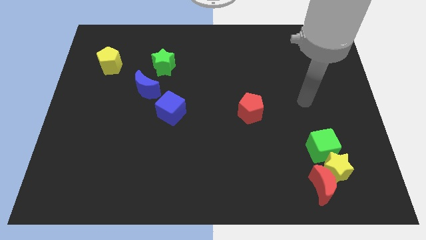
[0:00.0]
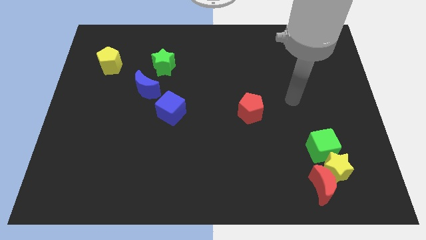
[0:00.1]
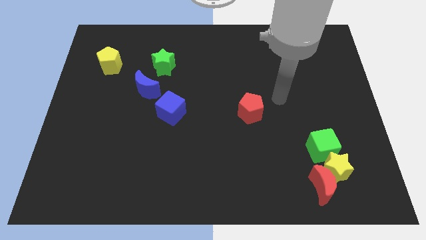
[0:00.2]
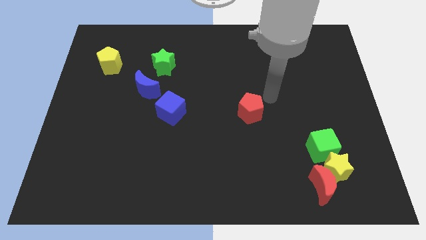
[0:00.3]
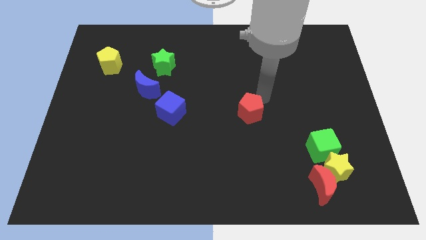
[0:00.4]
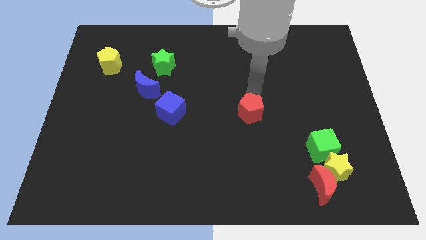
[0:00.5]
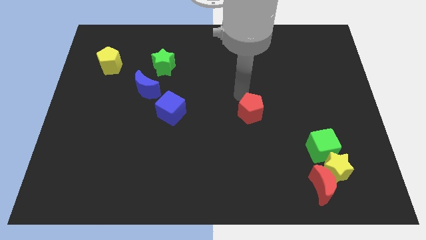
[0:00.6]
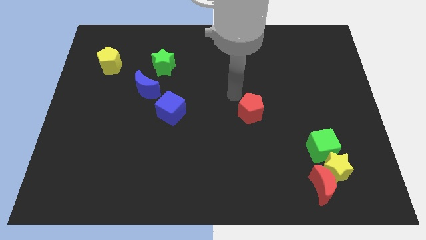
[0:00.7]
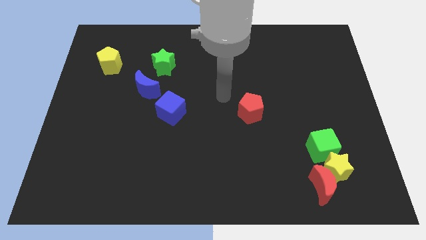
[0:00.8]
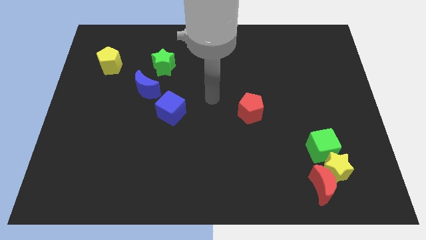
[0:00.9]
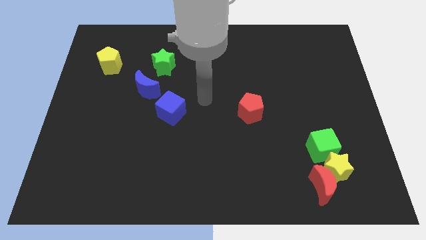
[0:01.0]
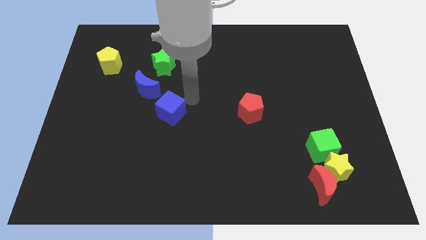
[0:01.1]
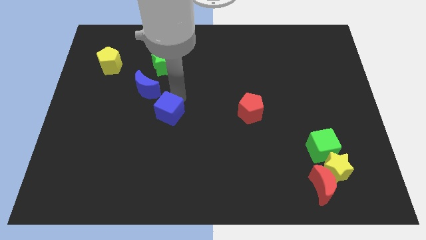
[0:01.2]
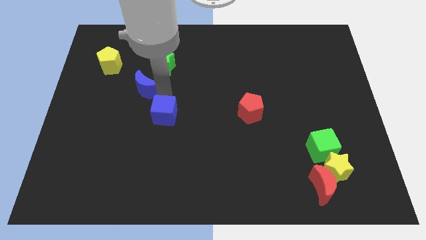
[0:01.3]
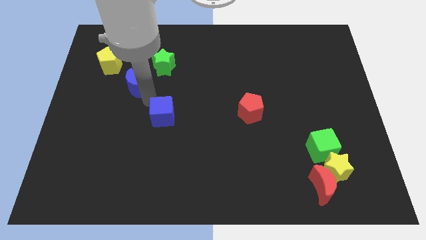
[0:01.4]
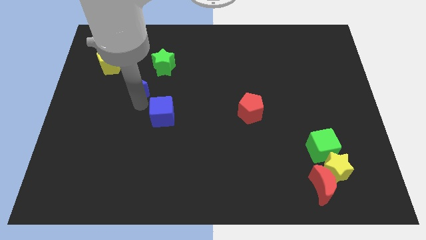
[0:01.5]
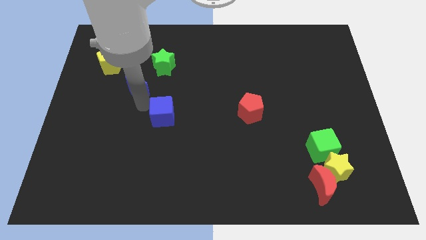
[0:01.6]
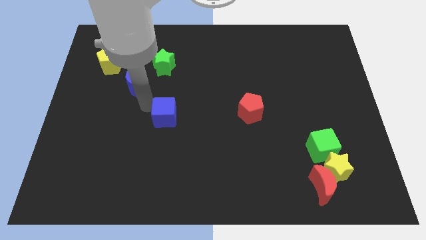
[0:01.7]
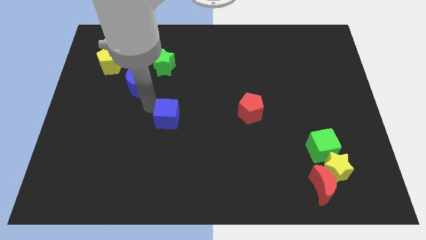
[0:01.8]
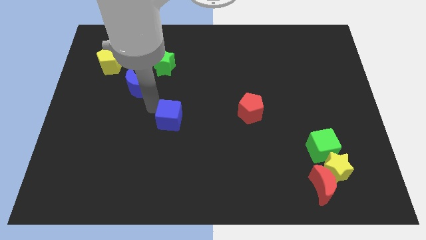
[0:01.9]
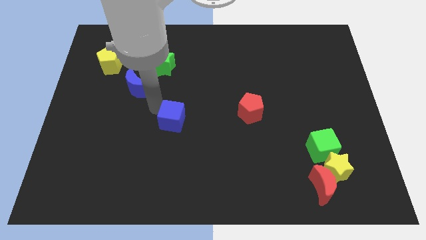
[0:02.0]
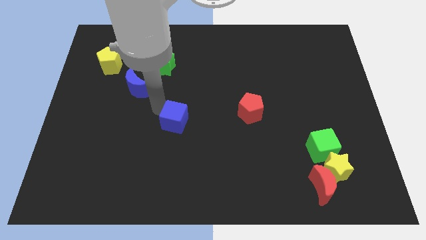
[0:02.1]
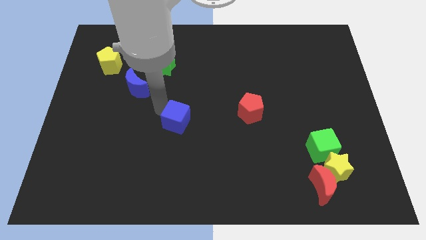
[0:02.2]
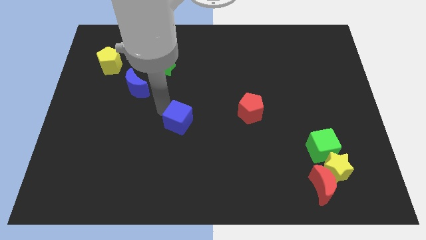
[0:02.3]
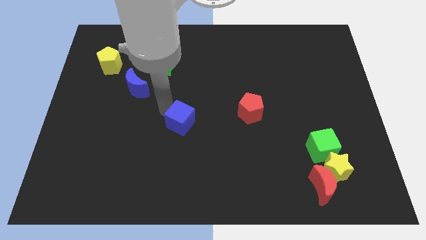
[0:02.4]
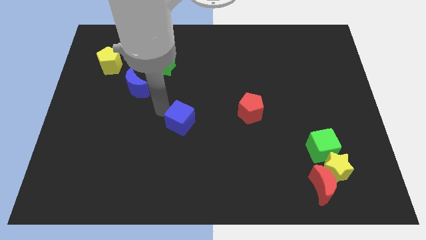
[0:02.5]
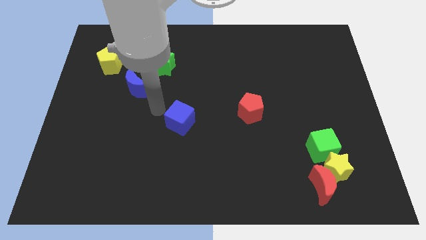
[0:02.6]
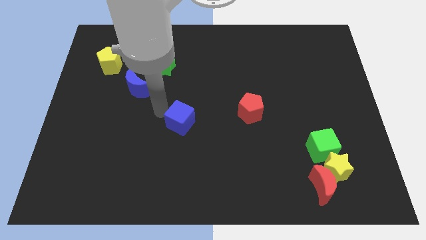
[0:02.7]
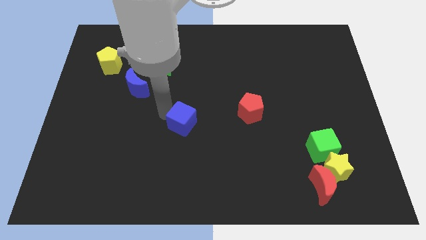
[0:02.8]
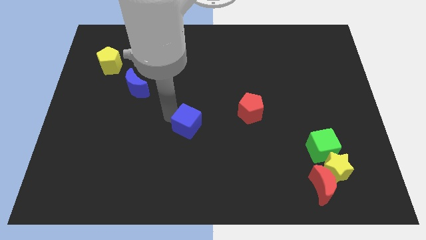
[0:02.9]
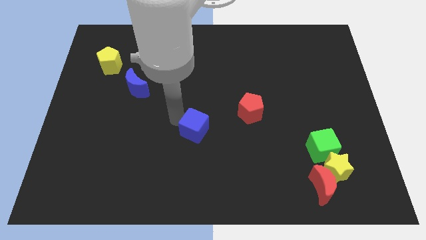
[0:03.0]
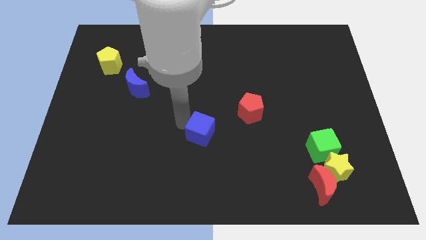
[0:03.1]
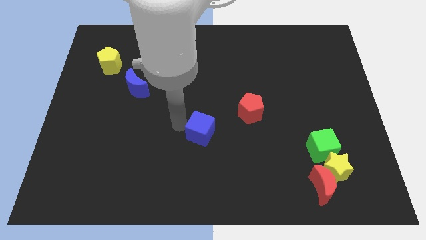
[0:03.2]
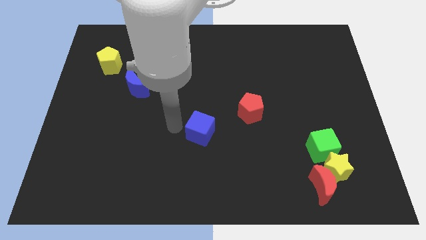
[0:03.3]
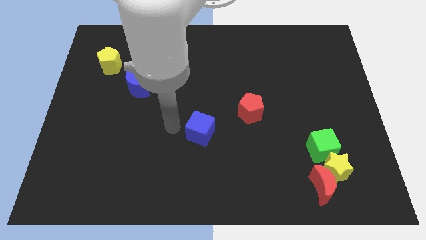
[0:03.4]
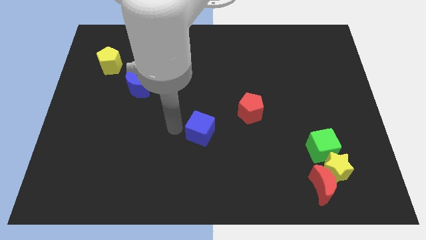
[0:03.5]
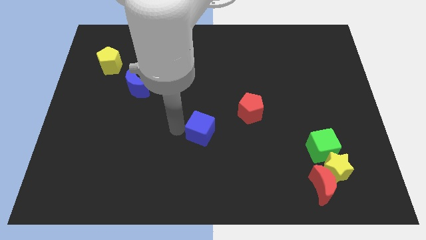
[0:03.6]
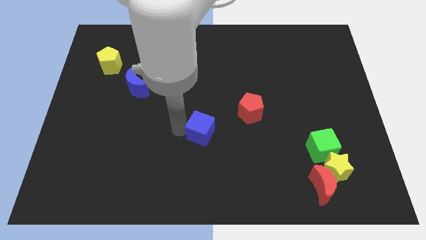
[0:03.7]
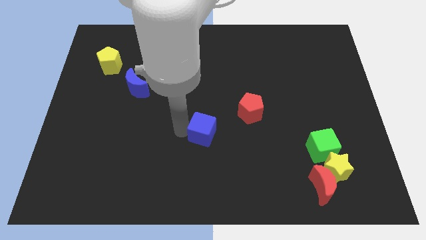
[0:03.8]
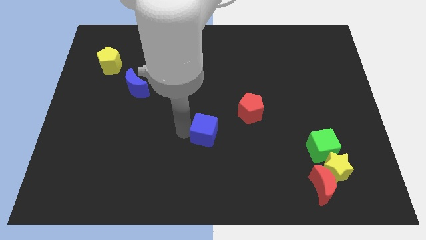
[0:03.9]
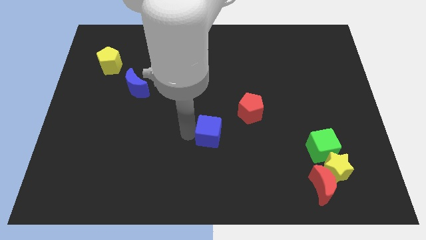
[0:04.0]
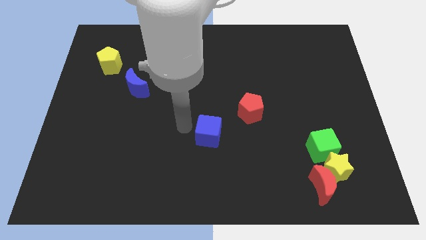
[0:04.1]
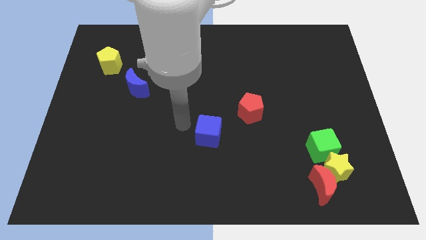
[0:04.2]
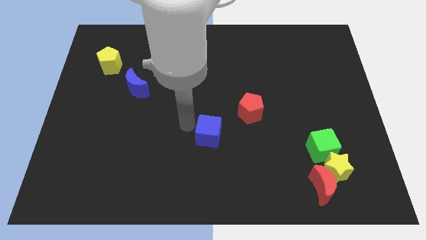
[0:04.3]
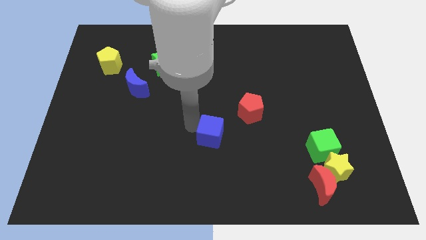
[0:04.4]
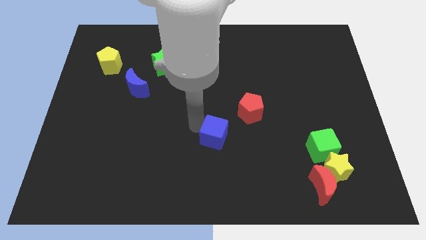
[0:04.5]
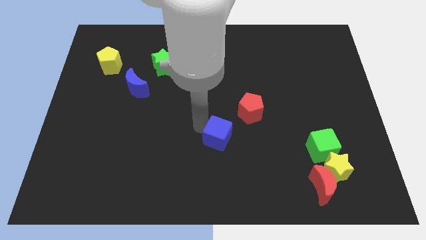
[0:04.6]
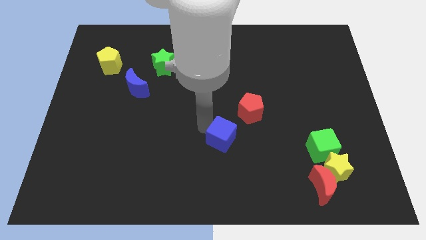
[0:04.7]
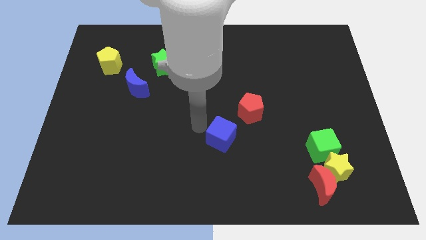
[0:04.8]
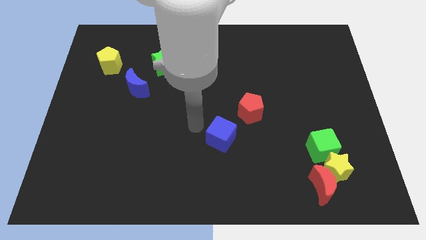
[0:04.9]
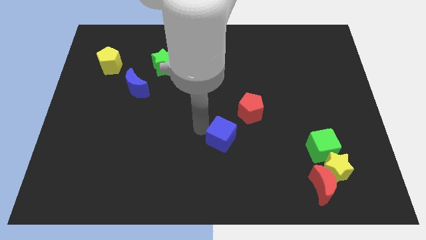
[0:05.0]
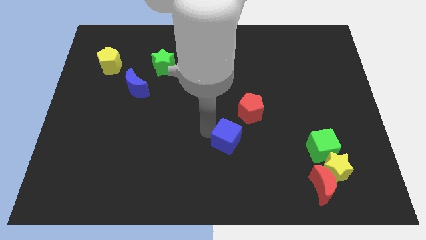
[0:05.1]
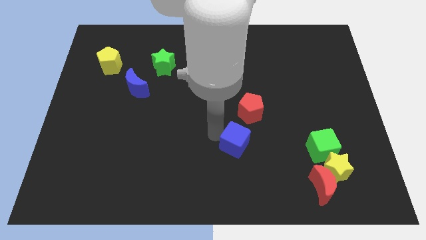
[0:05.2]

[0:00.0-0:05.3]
move the blue cube to the bottom of the red pentagon

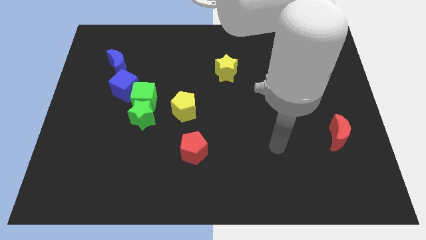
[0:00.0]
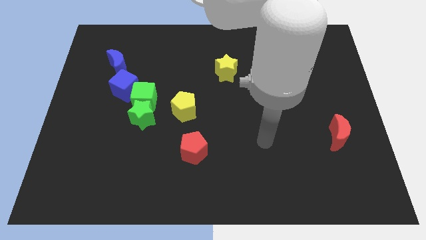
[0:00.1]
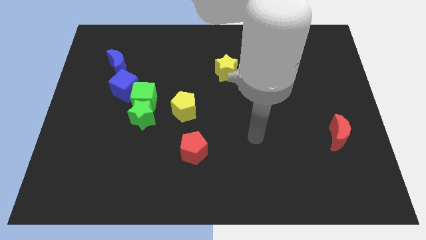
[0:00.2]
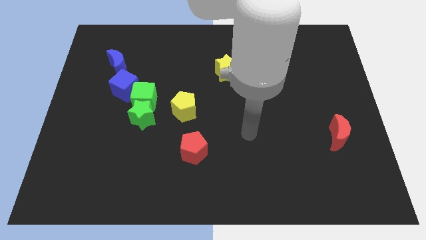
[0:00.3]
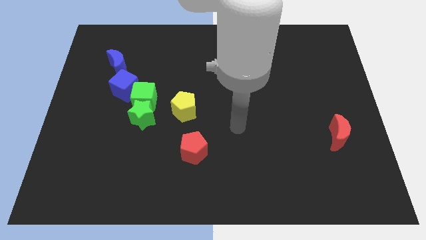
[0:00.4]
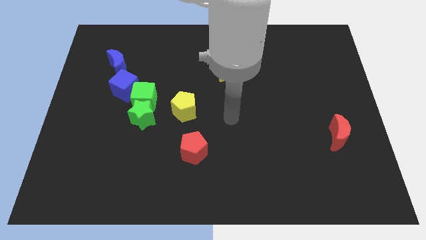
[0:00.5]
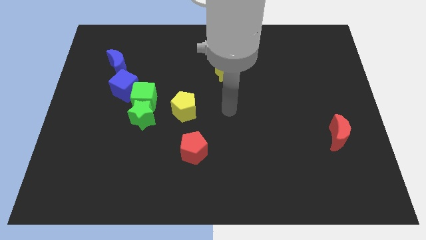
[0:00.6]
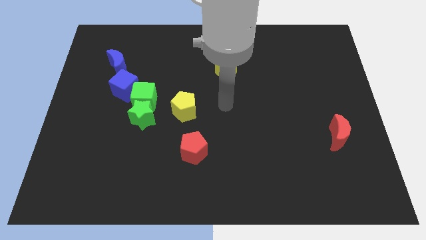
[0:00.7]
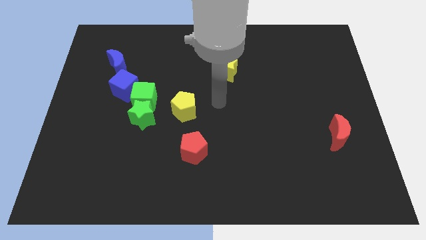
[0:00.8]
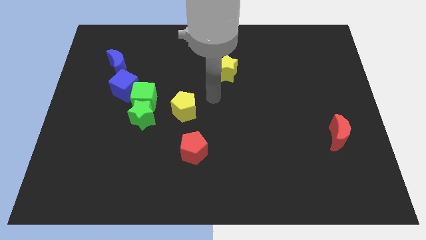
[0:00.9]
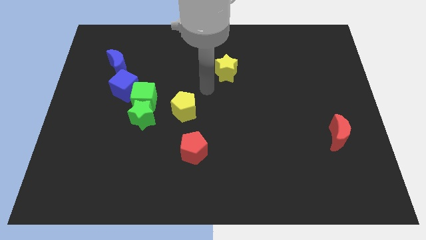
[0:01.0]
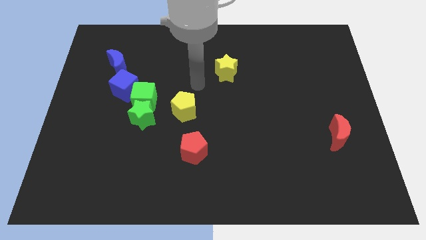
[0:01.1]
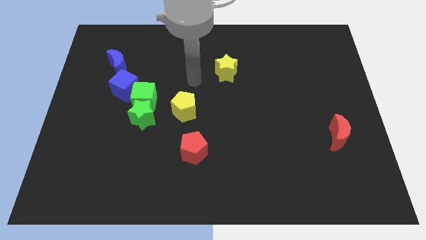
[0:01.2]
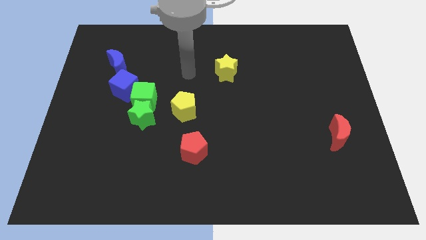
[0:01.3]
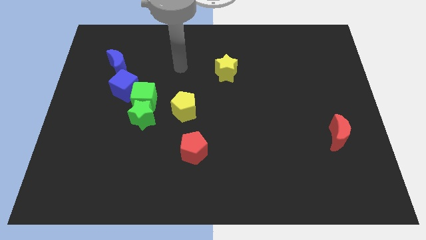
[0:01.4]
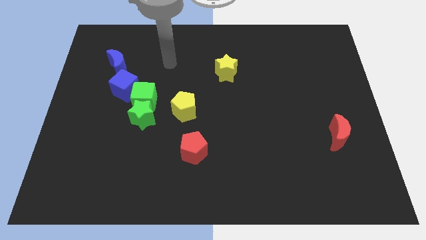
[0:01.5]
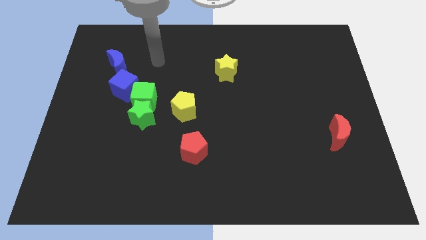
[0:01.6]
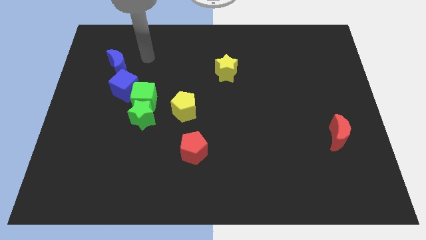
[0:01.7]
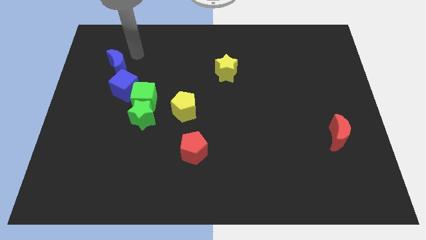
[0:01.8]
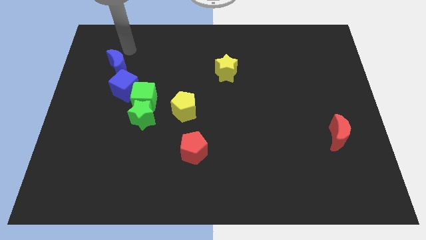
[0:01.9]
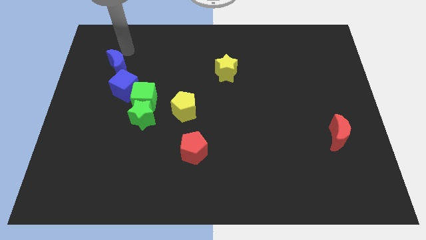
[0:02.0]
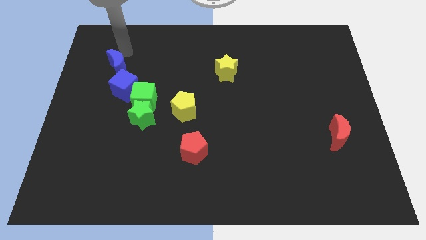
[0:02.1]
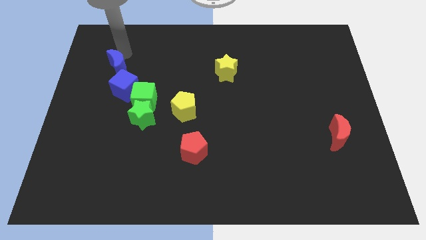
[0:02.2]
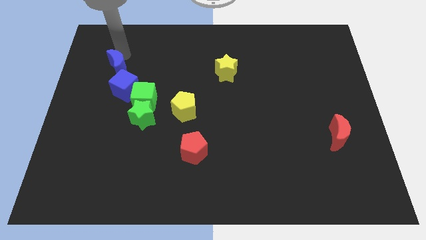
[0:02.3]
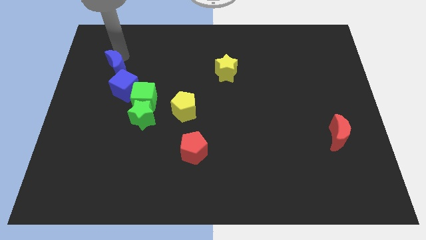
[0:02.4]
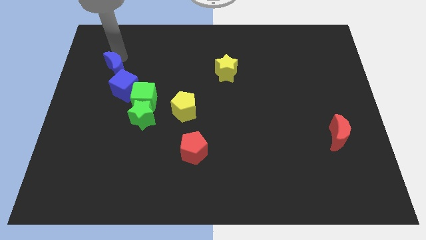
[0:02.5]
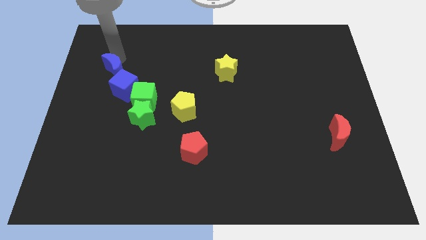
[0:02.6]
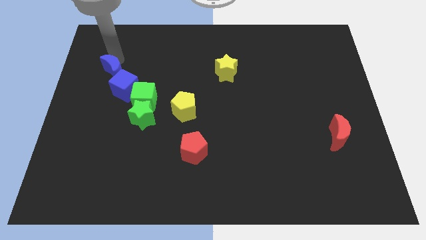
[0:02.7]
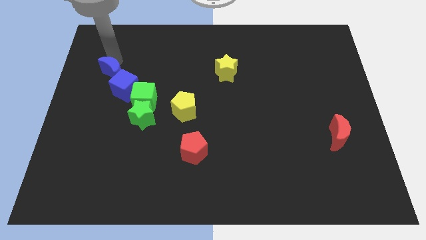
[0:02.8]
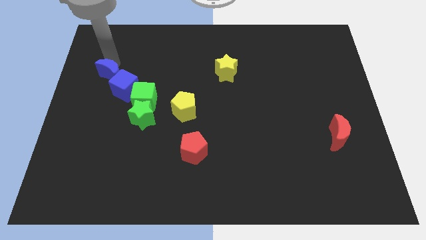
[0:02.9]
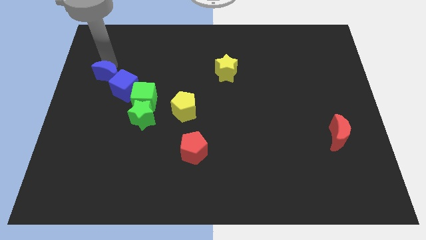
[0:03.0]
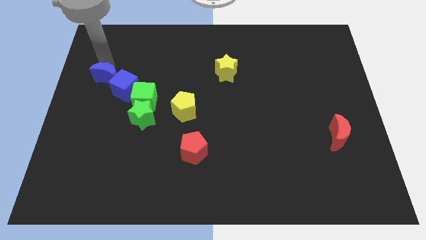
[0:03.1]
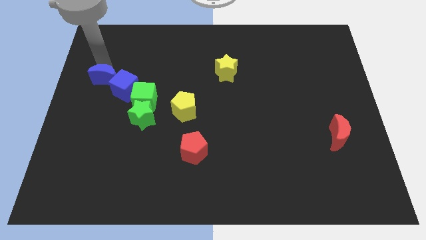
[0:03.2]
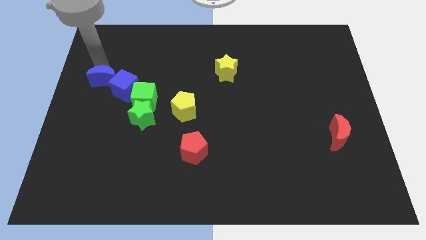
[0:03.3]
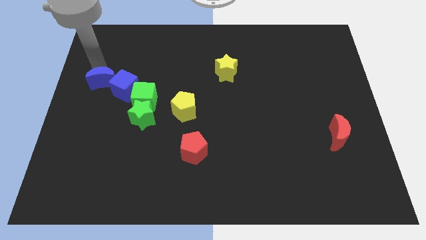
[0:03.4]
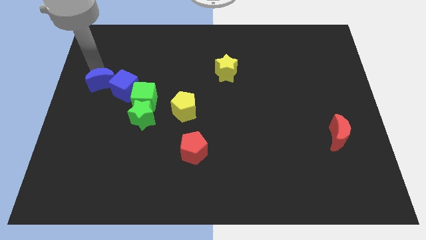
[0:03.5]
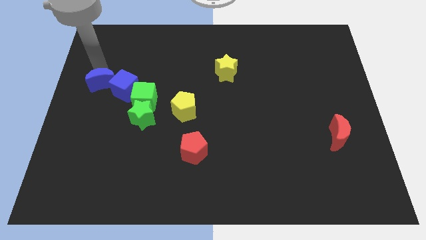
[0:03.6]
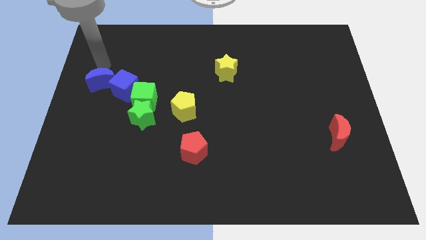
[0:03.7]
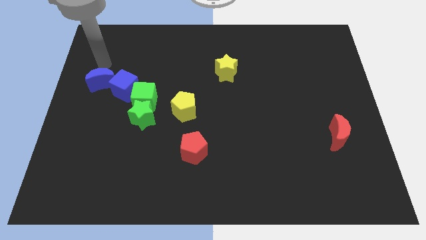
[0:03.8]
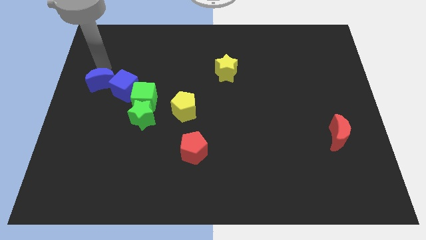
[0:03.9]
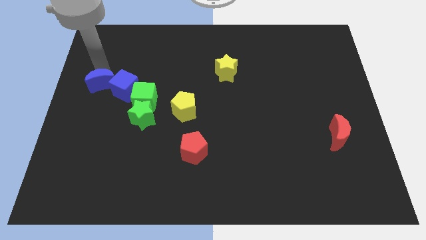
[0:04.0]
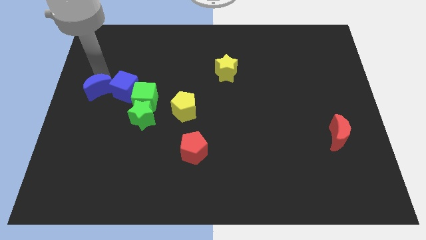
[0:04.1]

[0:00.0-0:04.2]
put the blue moon to the left side of the green cube
